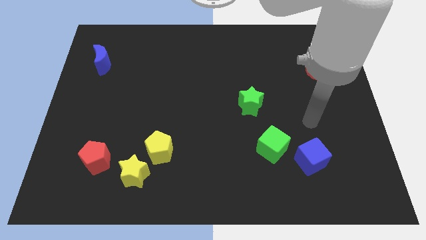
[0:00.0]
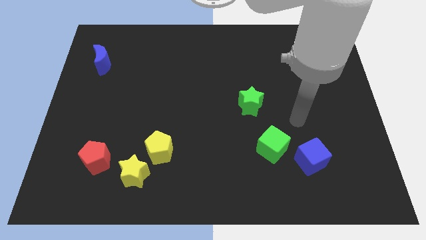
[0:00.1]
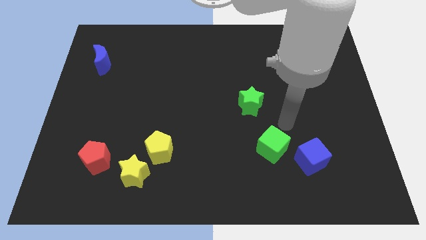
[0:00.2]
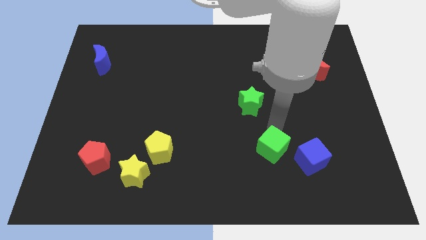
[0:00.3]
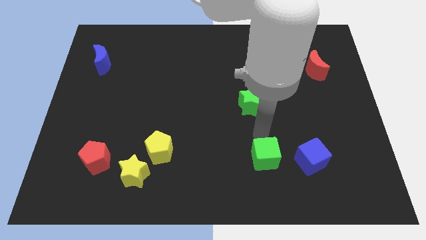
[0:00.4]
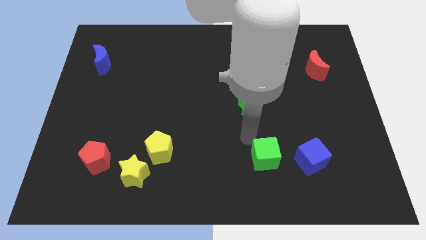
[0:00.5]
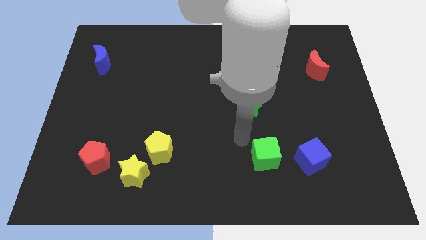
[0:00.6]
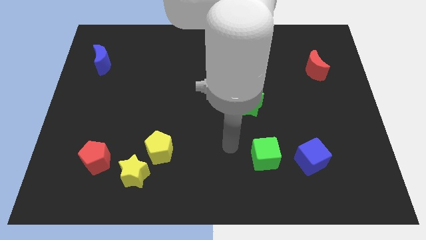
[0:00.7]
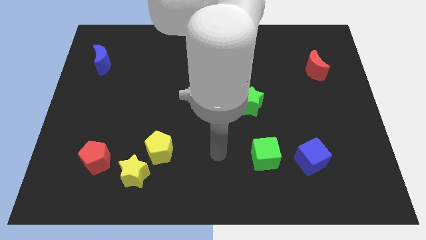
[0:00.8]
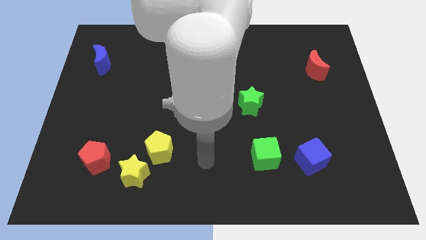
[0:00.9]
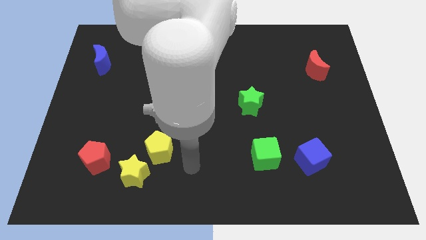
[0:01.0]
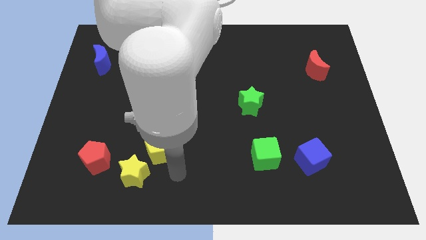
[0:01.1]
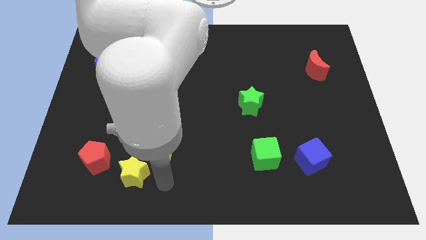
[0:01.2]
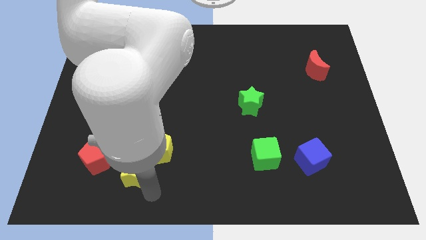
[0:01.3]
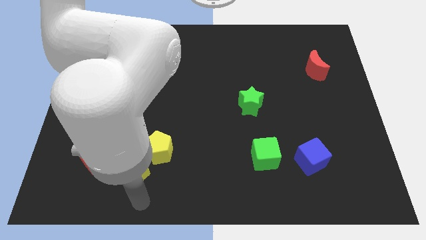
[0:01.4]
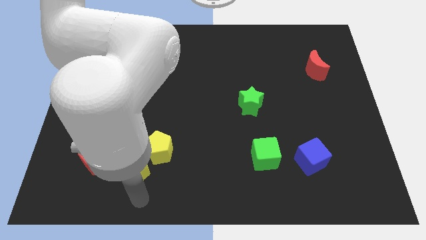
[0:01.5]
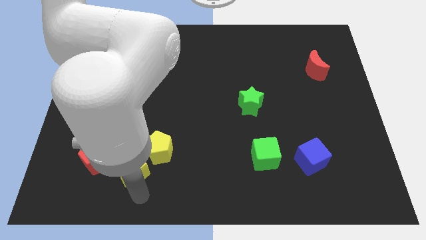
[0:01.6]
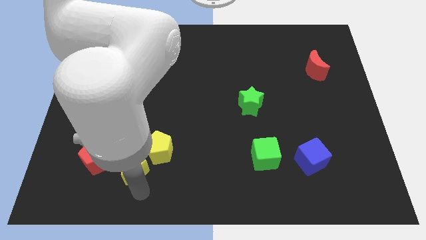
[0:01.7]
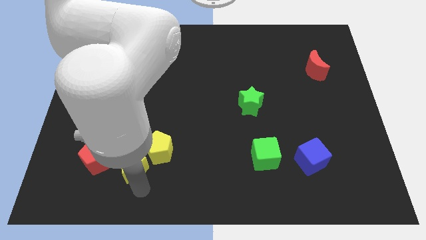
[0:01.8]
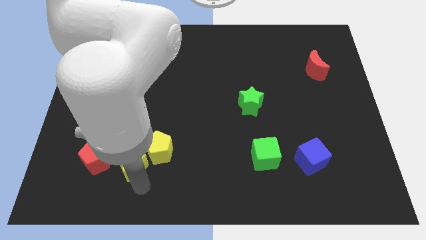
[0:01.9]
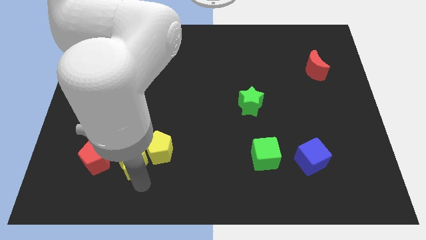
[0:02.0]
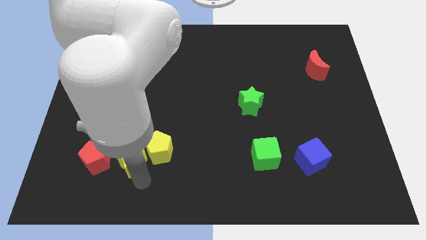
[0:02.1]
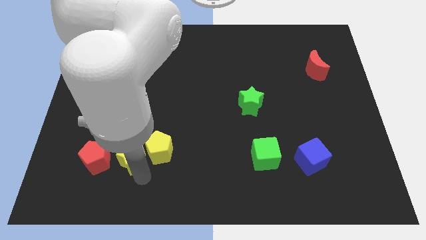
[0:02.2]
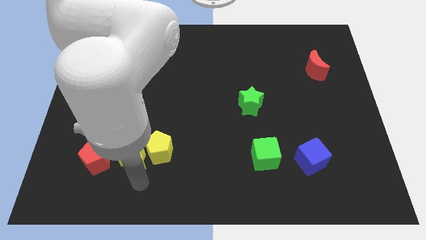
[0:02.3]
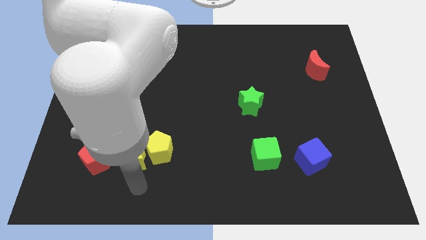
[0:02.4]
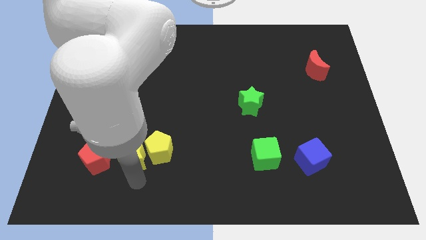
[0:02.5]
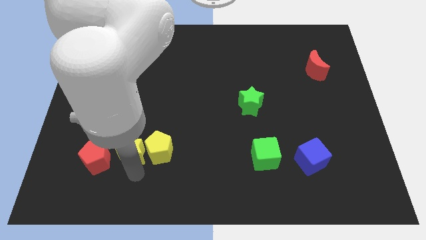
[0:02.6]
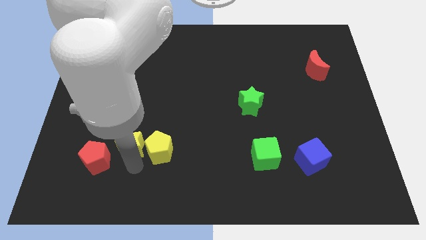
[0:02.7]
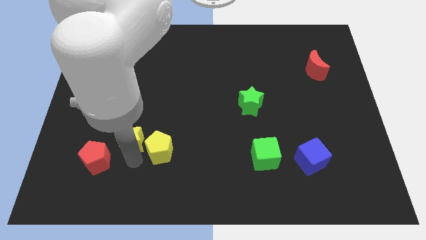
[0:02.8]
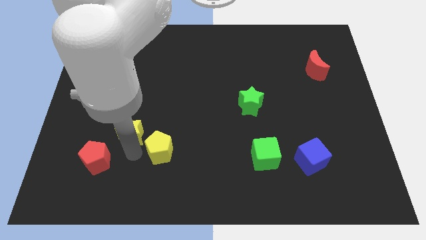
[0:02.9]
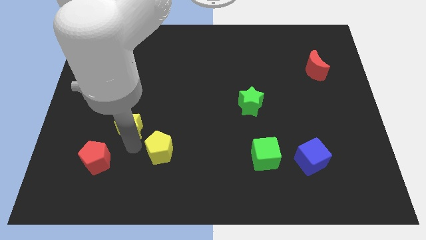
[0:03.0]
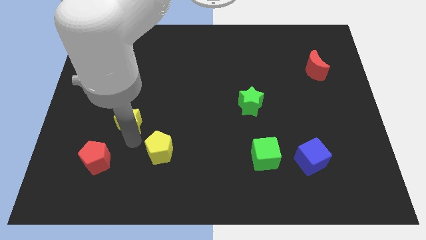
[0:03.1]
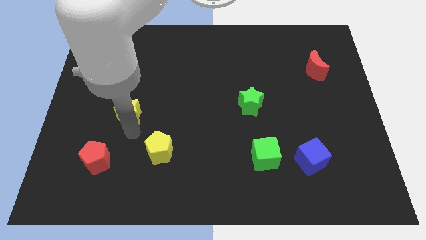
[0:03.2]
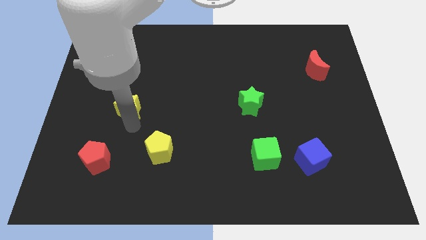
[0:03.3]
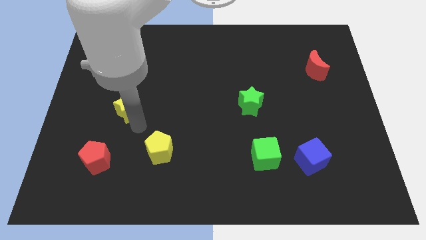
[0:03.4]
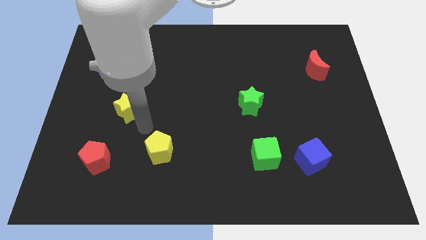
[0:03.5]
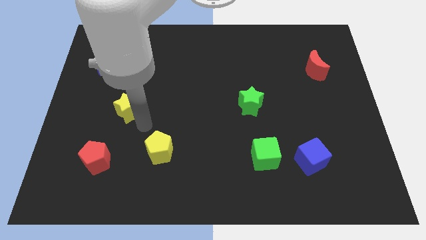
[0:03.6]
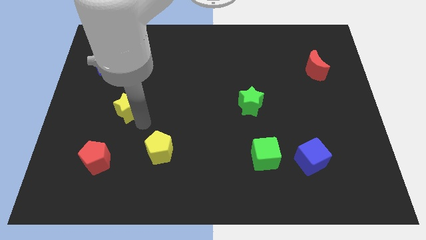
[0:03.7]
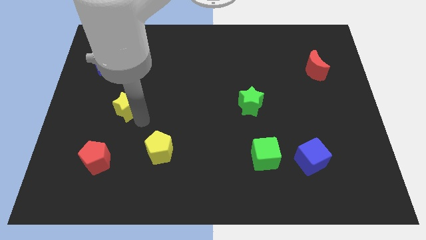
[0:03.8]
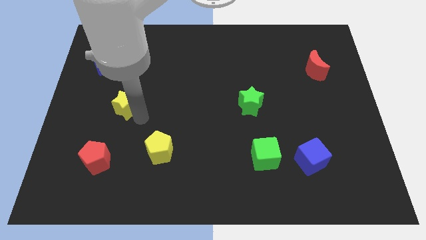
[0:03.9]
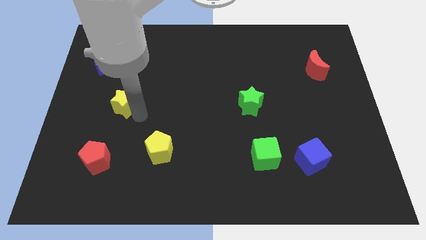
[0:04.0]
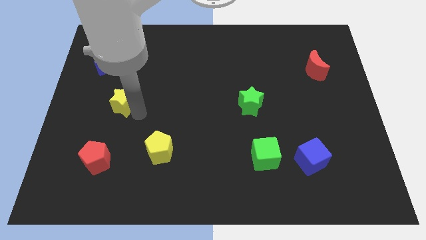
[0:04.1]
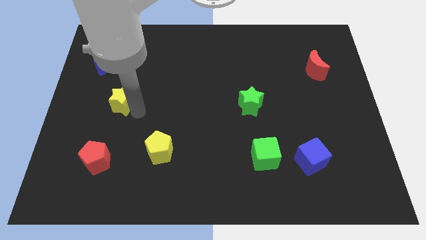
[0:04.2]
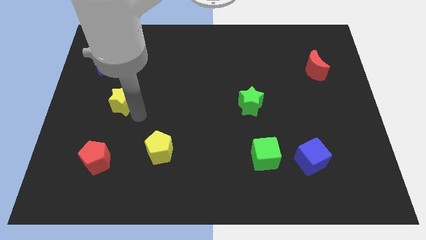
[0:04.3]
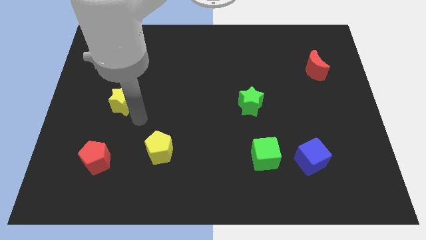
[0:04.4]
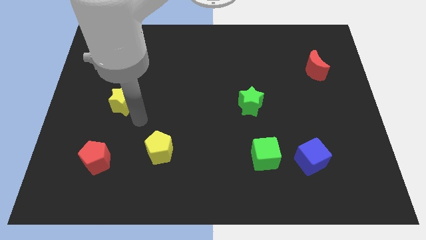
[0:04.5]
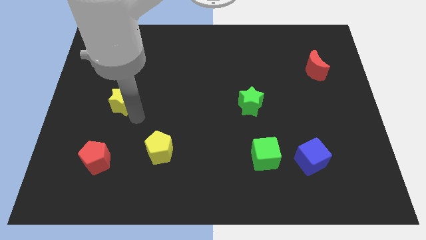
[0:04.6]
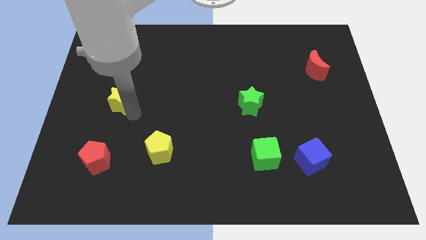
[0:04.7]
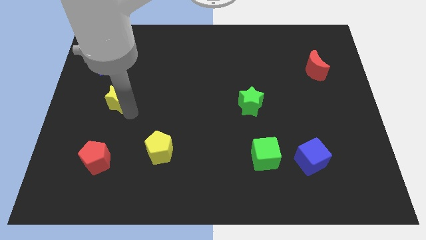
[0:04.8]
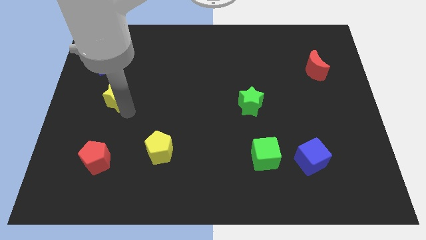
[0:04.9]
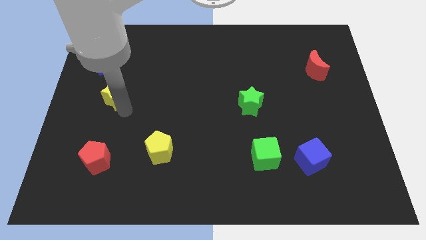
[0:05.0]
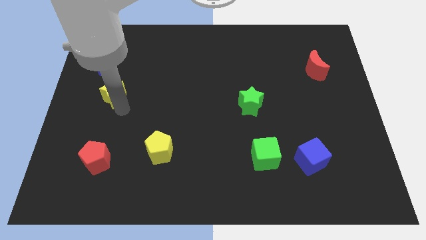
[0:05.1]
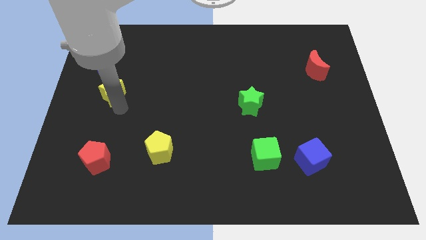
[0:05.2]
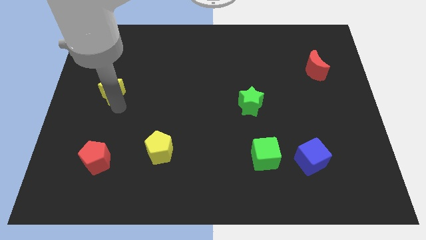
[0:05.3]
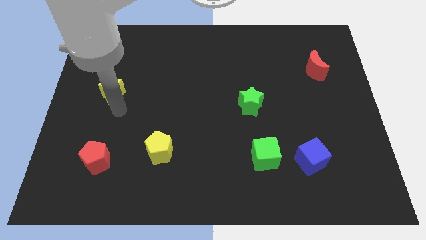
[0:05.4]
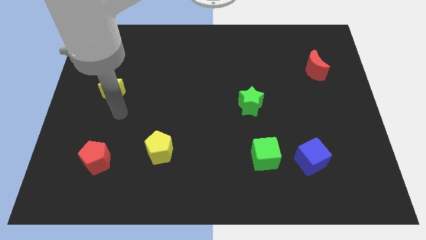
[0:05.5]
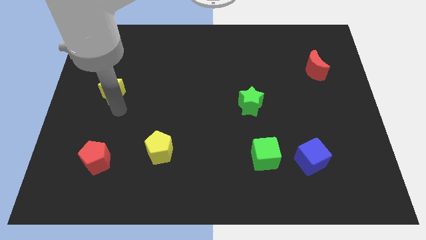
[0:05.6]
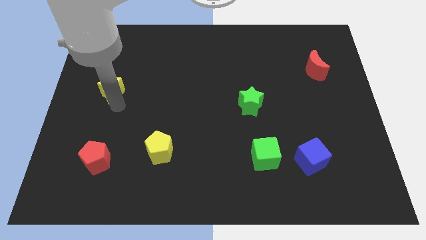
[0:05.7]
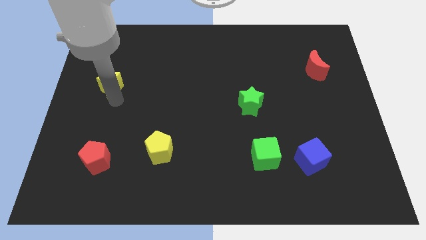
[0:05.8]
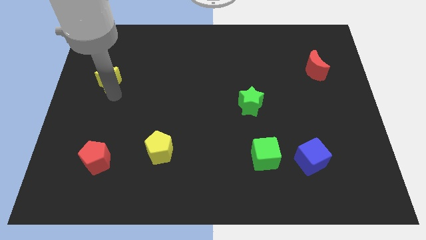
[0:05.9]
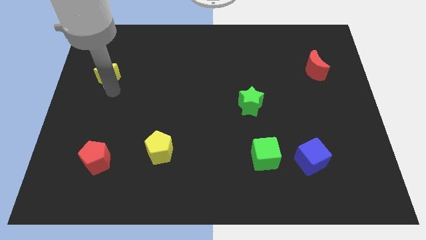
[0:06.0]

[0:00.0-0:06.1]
move the yellow star towards the blue moon

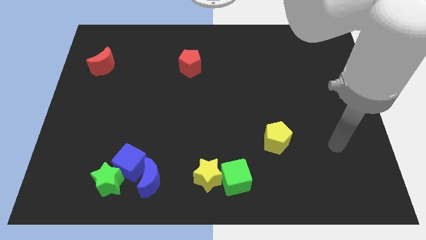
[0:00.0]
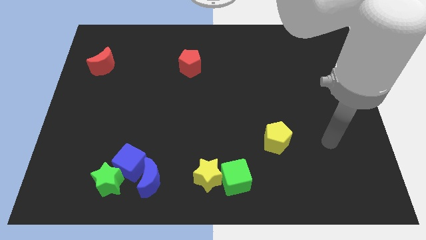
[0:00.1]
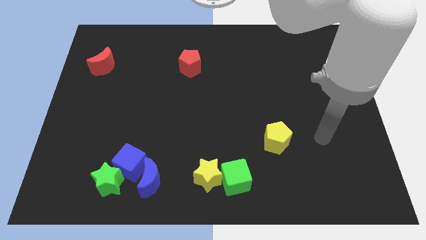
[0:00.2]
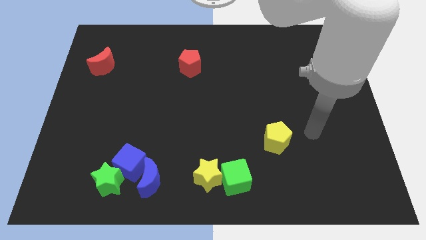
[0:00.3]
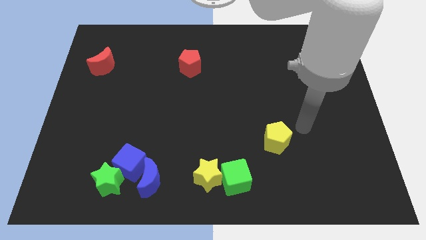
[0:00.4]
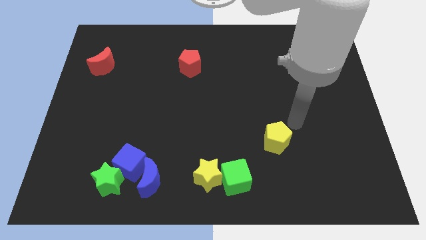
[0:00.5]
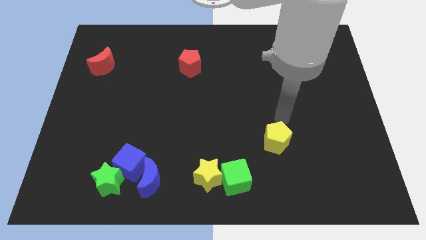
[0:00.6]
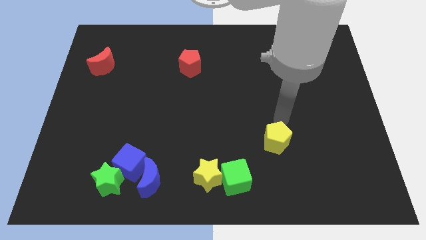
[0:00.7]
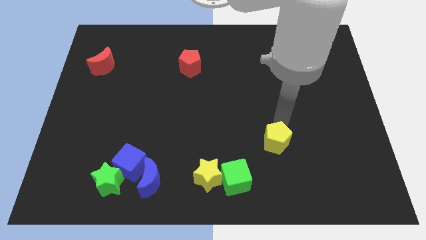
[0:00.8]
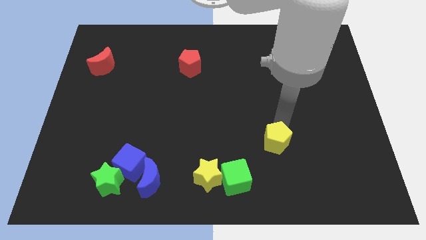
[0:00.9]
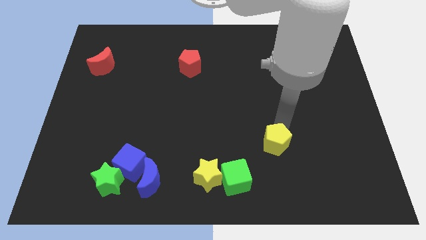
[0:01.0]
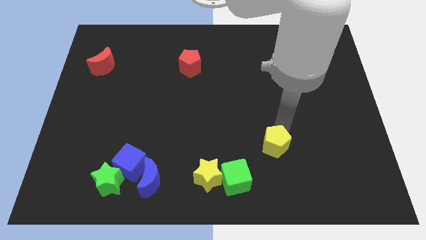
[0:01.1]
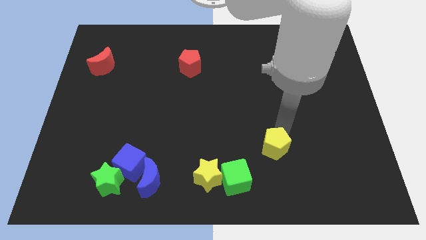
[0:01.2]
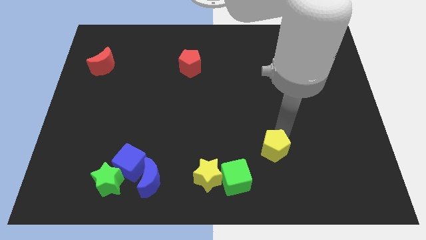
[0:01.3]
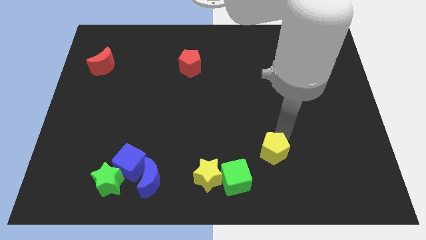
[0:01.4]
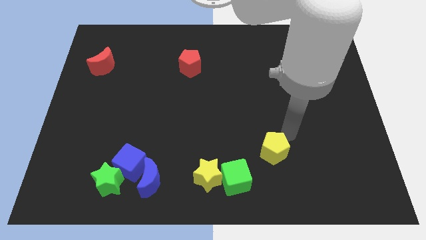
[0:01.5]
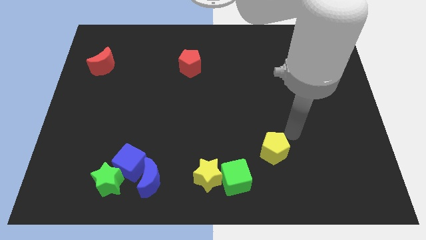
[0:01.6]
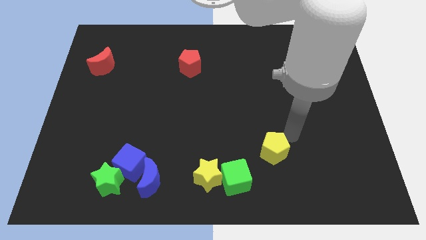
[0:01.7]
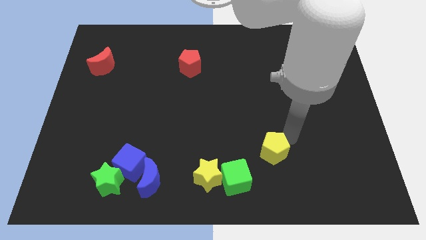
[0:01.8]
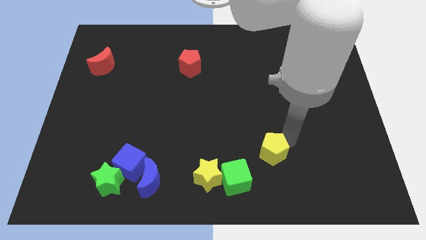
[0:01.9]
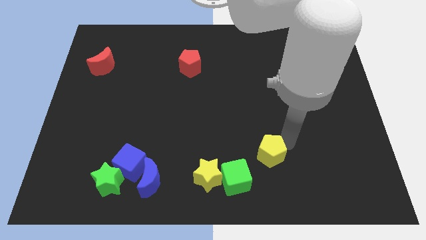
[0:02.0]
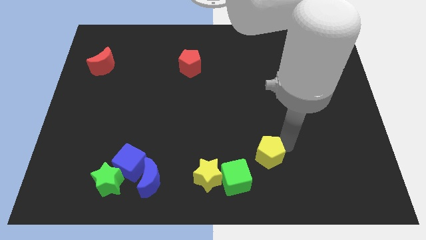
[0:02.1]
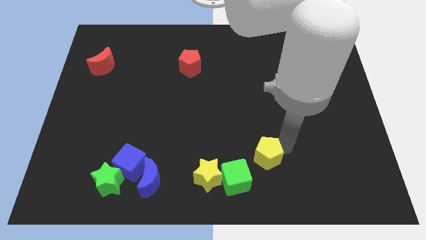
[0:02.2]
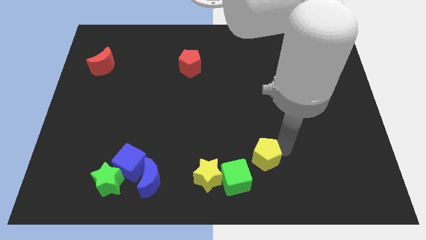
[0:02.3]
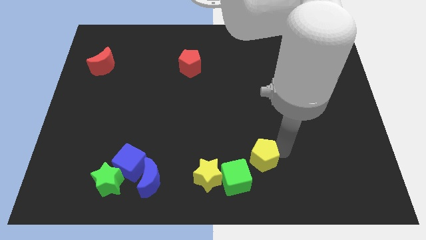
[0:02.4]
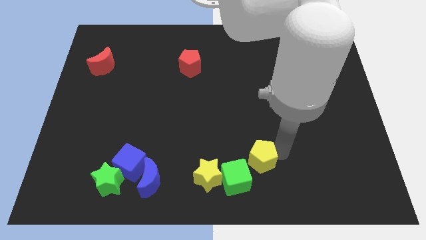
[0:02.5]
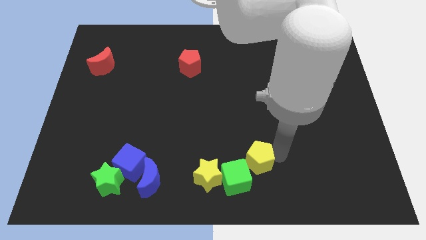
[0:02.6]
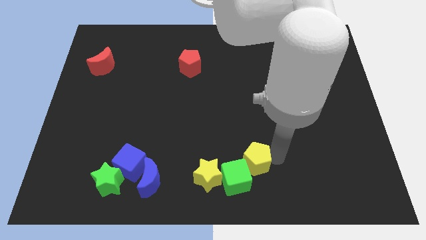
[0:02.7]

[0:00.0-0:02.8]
put the yellow pentagon close to the green cube
